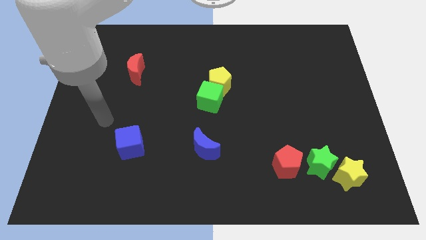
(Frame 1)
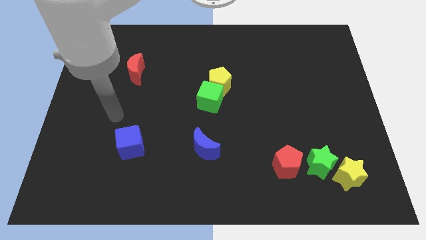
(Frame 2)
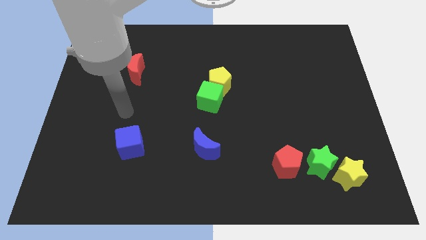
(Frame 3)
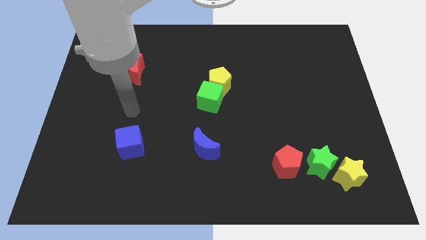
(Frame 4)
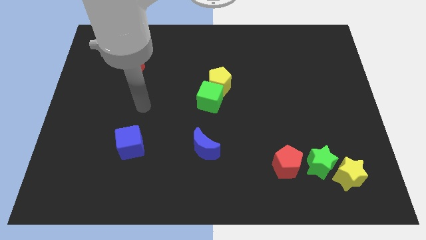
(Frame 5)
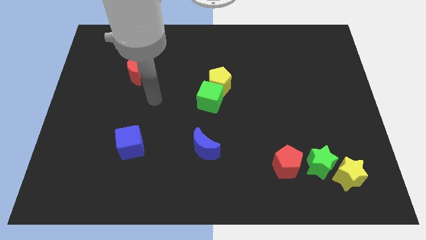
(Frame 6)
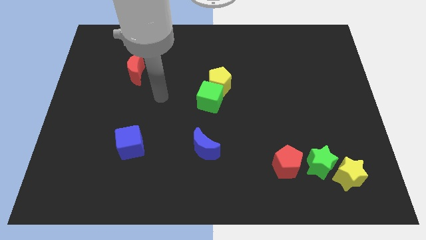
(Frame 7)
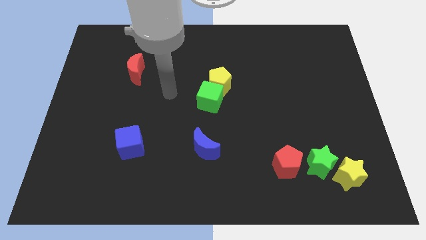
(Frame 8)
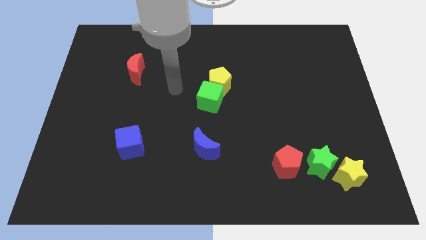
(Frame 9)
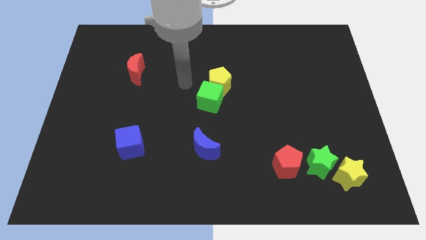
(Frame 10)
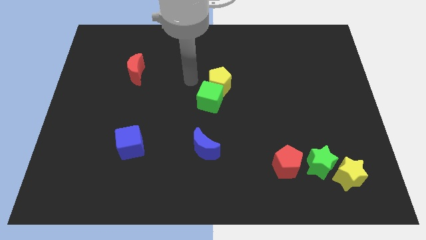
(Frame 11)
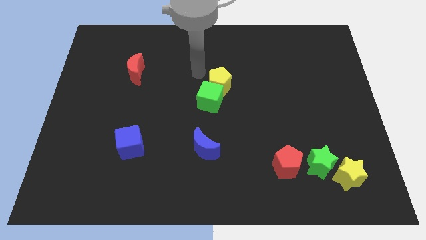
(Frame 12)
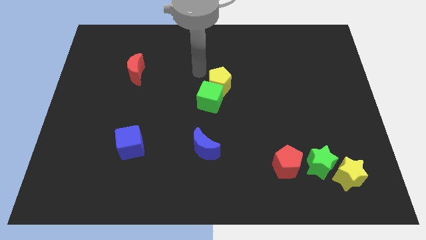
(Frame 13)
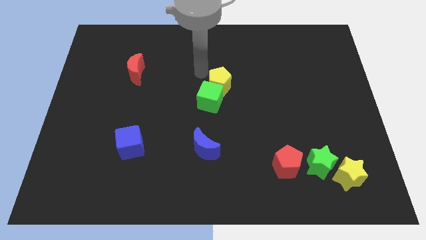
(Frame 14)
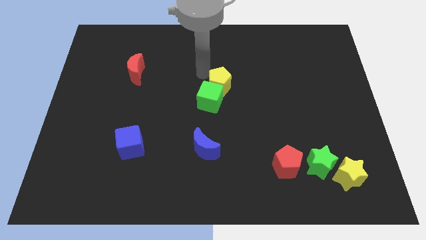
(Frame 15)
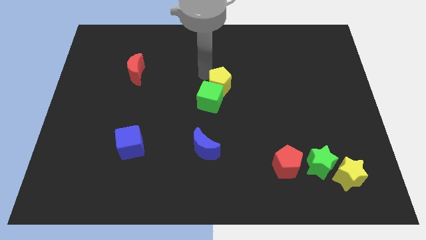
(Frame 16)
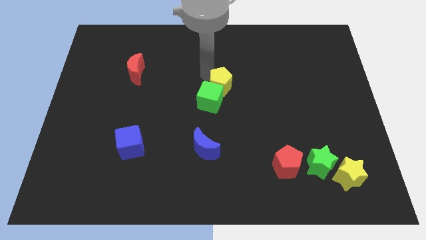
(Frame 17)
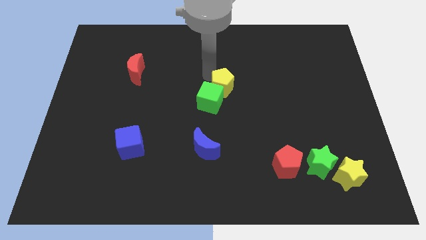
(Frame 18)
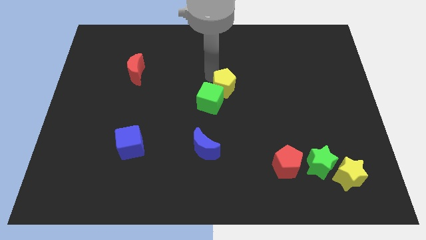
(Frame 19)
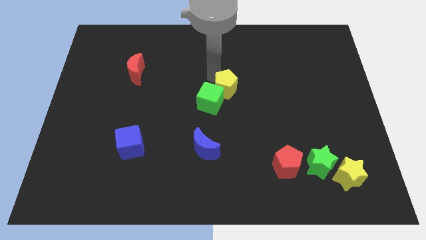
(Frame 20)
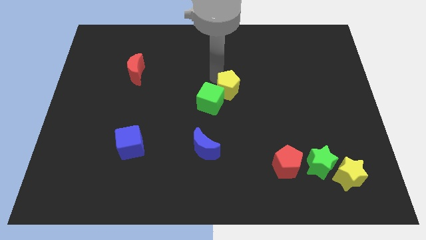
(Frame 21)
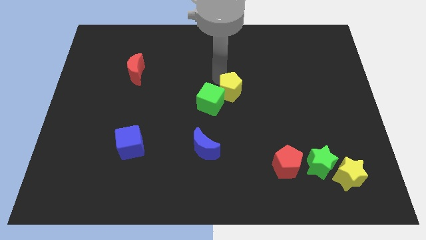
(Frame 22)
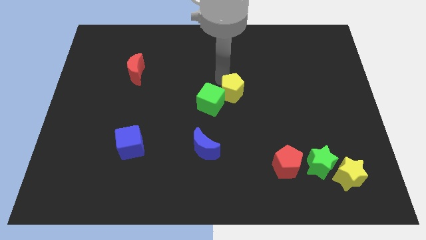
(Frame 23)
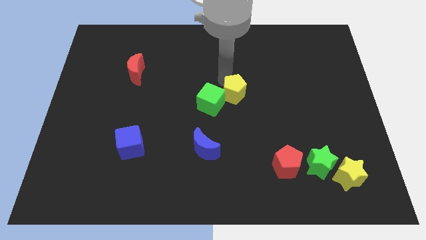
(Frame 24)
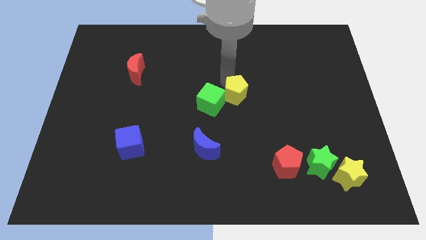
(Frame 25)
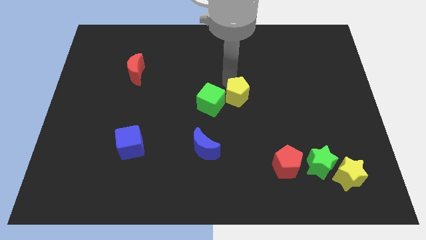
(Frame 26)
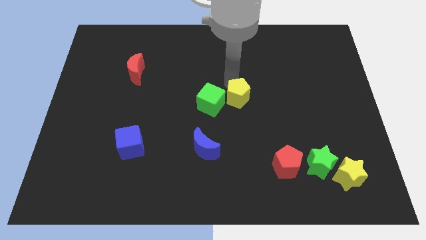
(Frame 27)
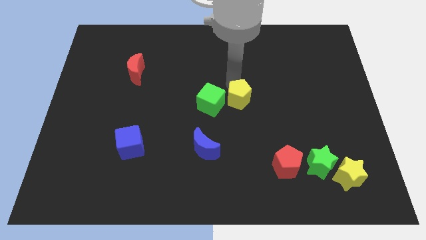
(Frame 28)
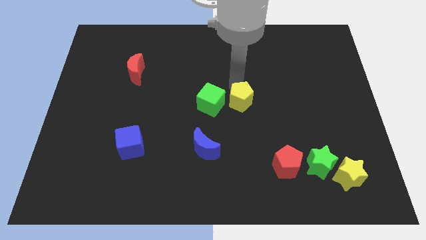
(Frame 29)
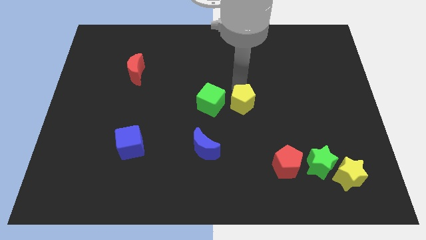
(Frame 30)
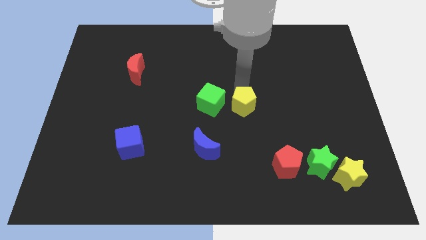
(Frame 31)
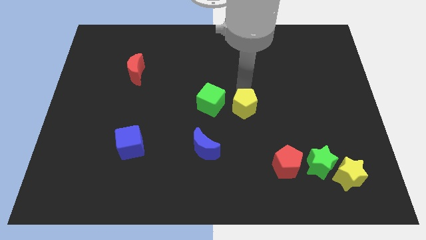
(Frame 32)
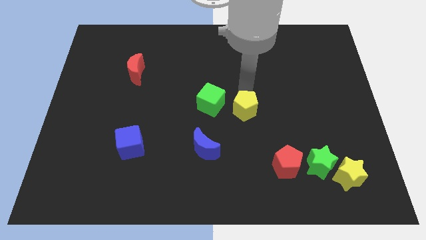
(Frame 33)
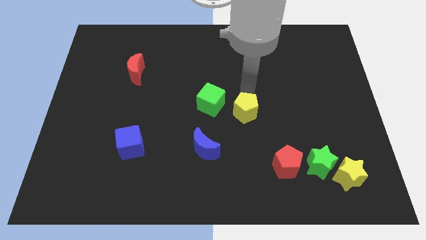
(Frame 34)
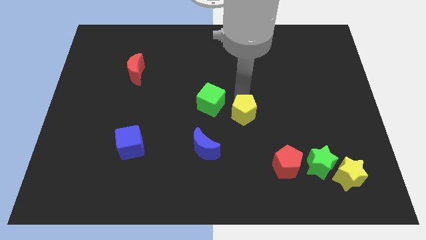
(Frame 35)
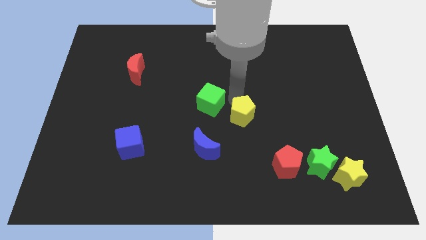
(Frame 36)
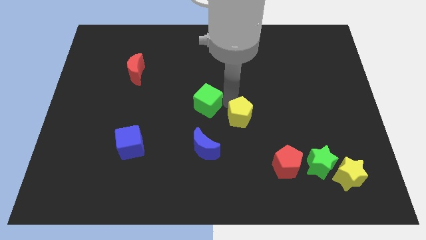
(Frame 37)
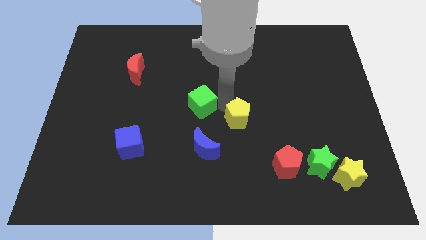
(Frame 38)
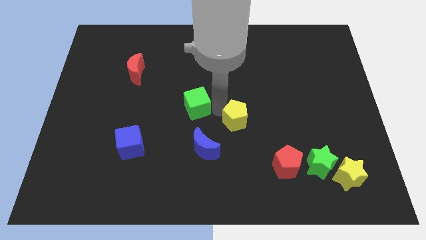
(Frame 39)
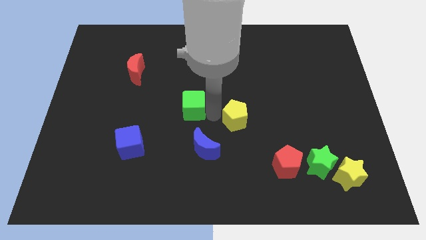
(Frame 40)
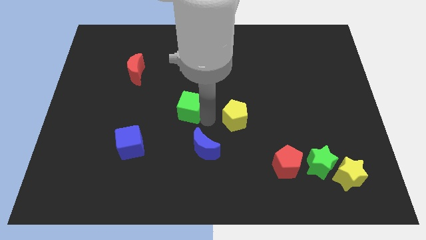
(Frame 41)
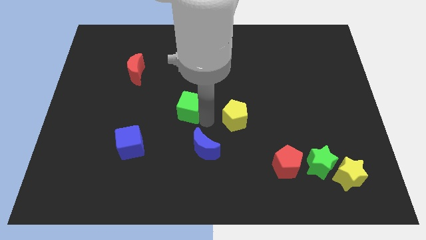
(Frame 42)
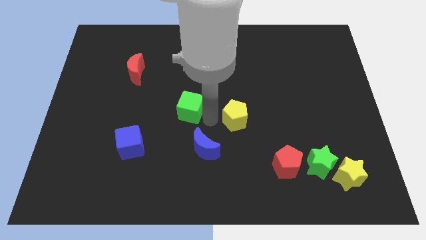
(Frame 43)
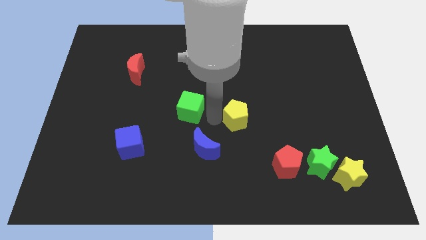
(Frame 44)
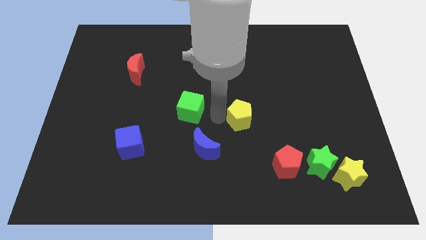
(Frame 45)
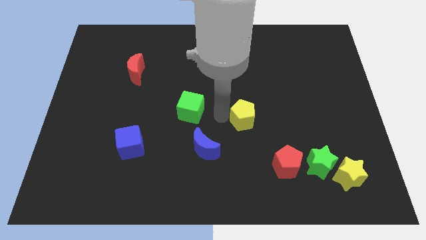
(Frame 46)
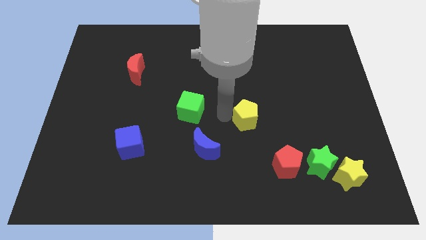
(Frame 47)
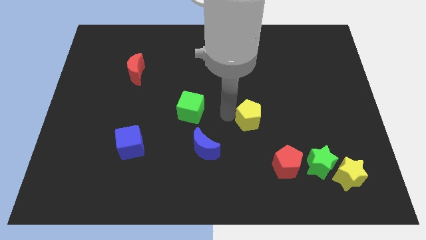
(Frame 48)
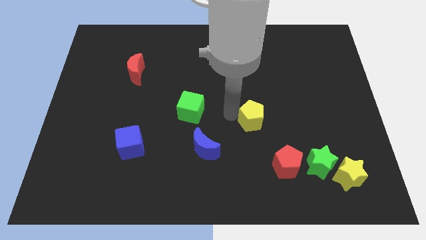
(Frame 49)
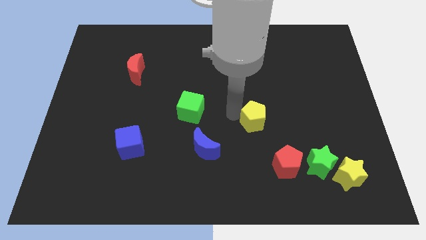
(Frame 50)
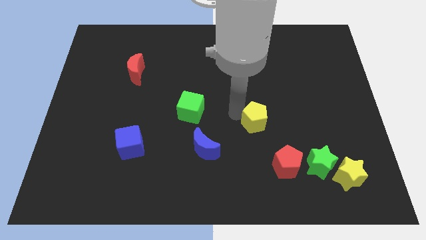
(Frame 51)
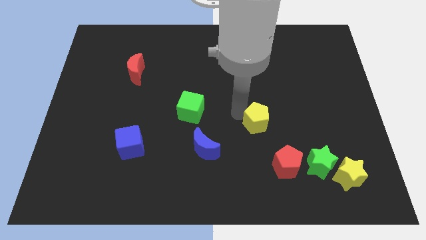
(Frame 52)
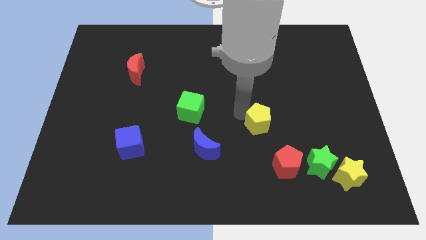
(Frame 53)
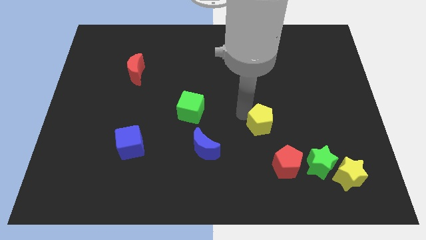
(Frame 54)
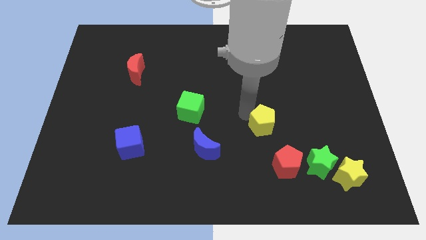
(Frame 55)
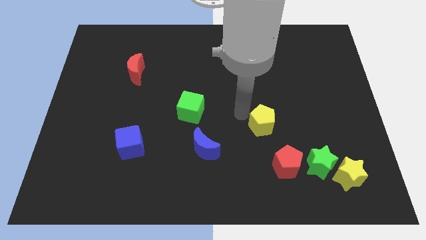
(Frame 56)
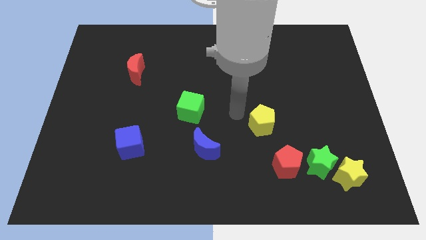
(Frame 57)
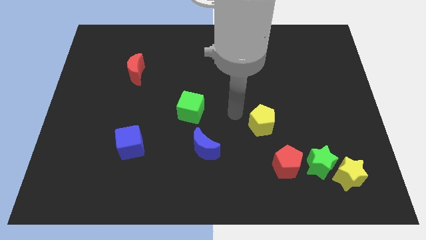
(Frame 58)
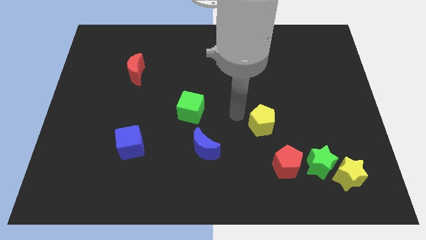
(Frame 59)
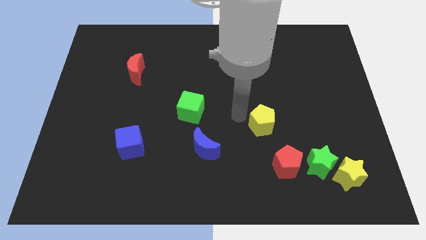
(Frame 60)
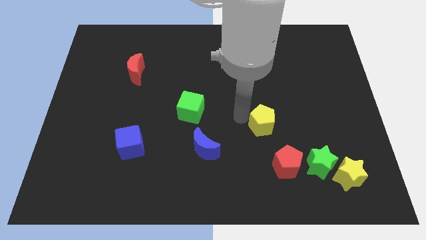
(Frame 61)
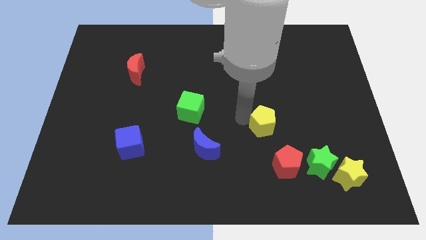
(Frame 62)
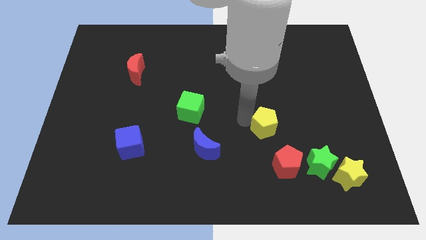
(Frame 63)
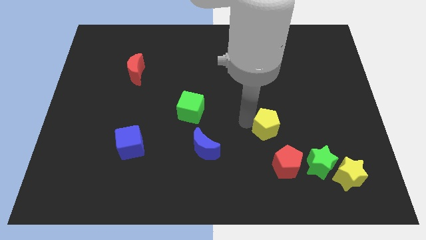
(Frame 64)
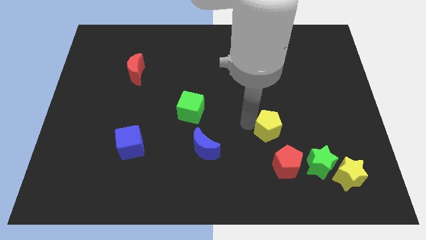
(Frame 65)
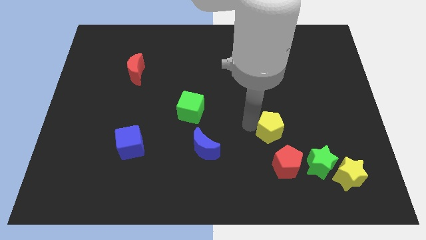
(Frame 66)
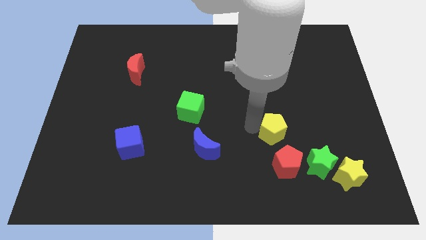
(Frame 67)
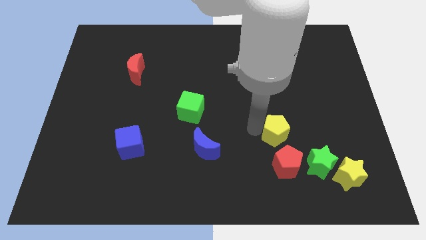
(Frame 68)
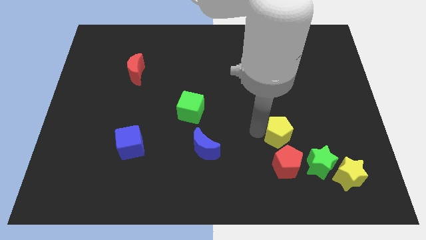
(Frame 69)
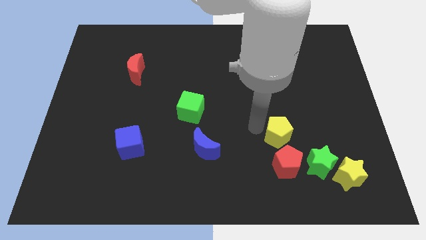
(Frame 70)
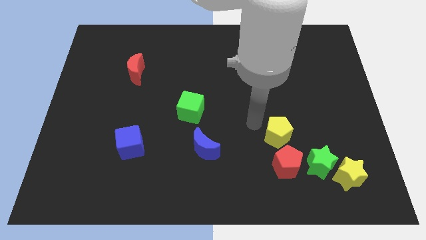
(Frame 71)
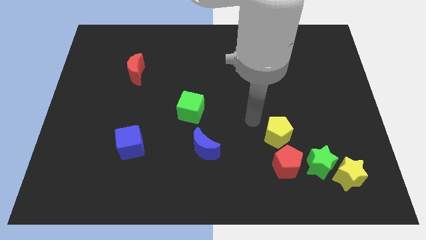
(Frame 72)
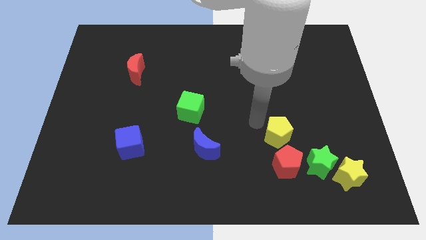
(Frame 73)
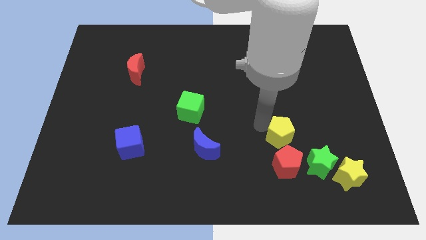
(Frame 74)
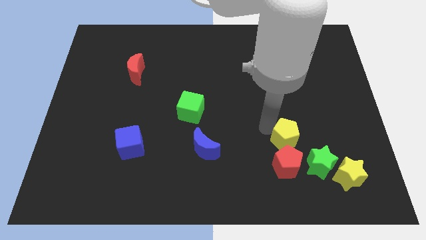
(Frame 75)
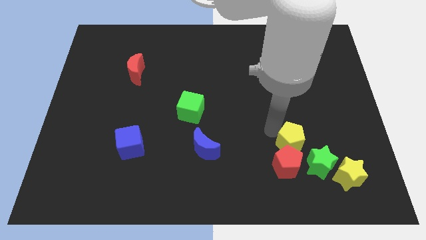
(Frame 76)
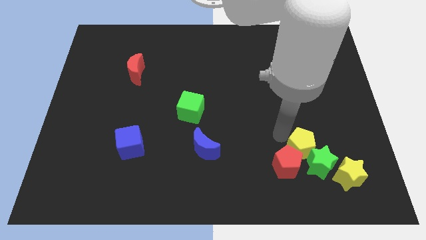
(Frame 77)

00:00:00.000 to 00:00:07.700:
push the yellow pentagon next to the green star
